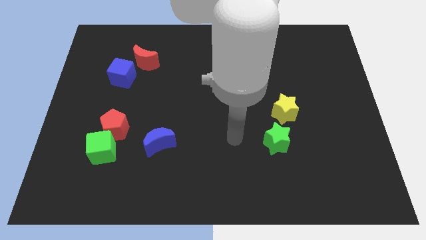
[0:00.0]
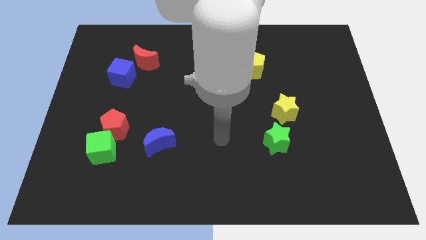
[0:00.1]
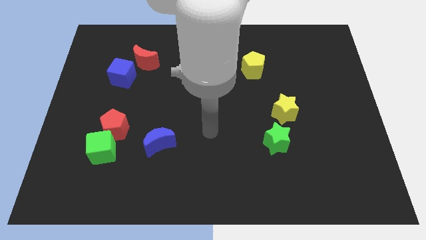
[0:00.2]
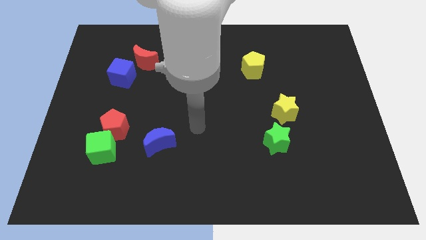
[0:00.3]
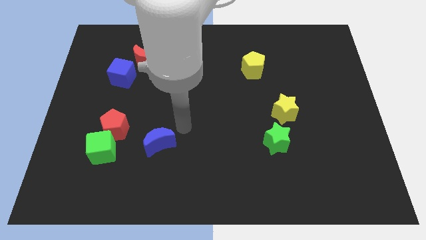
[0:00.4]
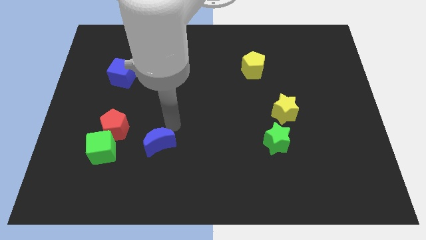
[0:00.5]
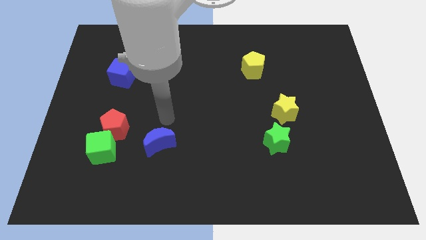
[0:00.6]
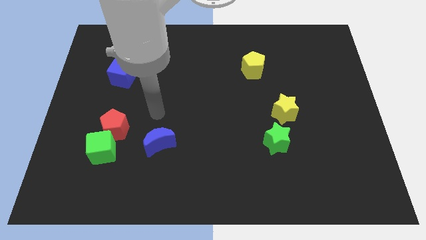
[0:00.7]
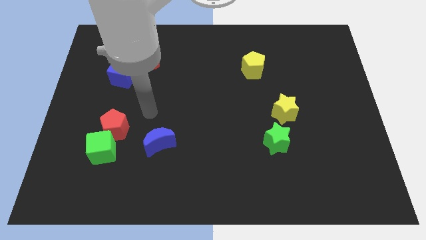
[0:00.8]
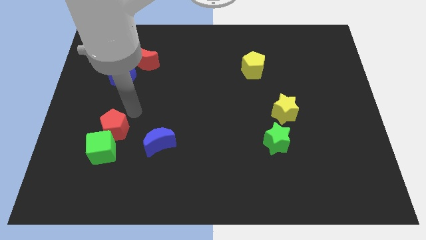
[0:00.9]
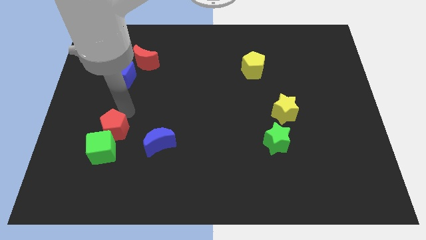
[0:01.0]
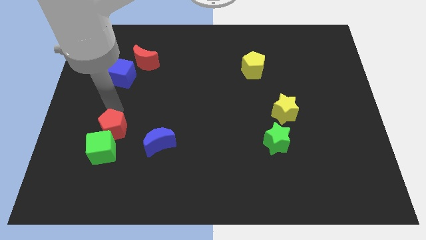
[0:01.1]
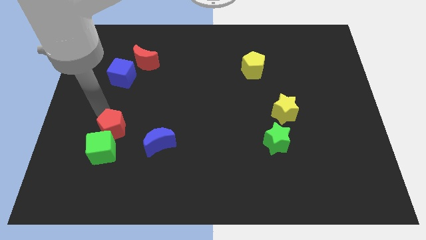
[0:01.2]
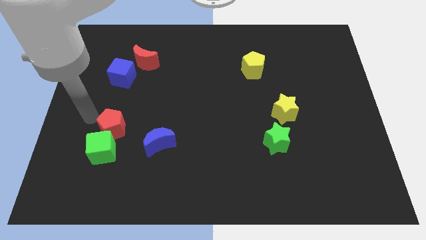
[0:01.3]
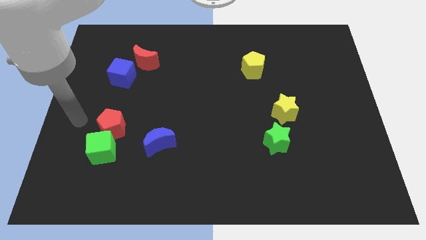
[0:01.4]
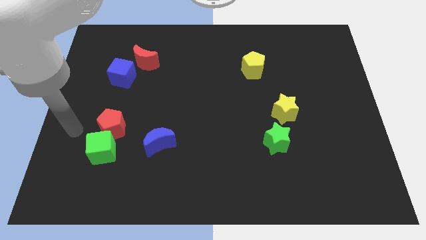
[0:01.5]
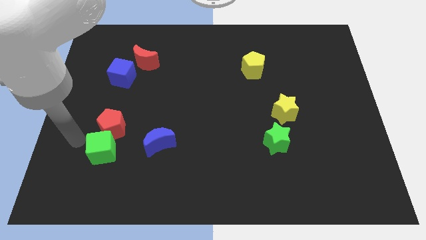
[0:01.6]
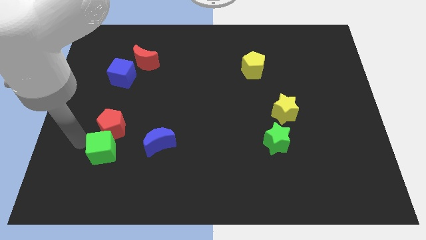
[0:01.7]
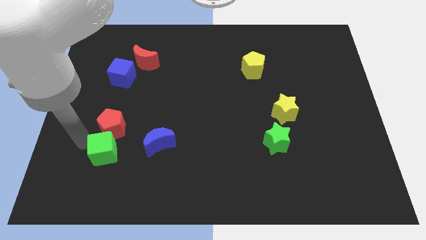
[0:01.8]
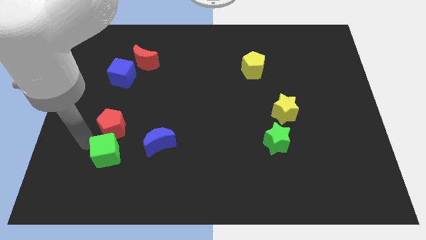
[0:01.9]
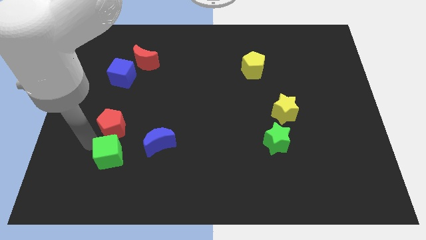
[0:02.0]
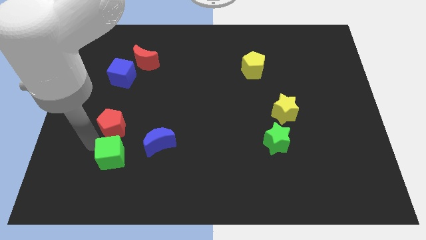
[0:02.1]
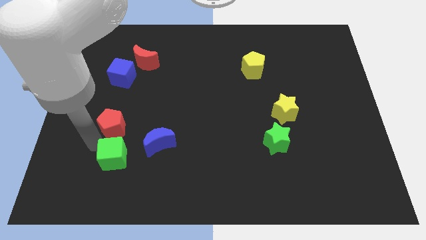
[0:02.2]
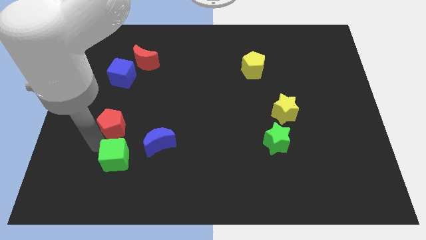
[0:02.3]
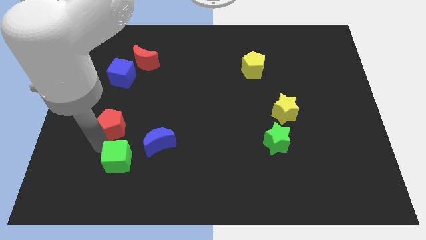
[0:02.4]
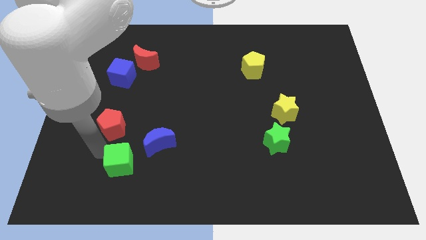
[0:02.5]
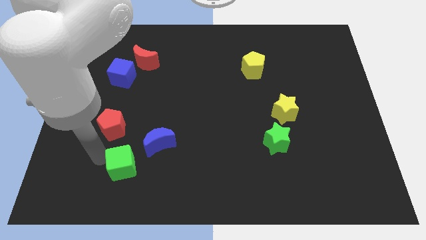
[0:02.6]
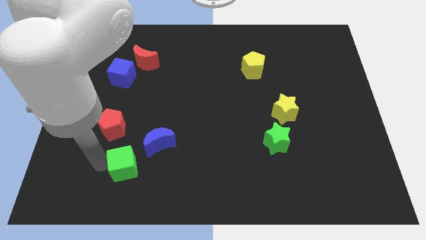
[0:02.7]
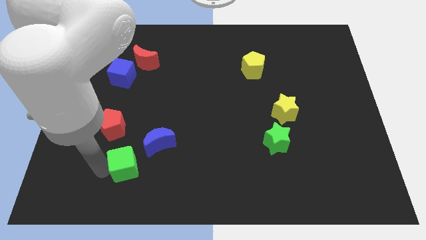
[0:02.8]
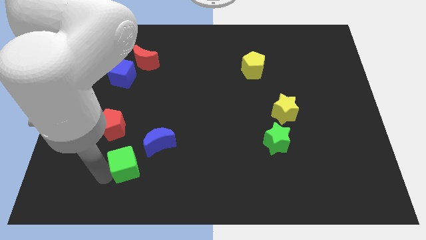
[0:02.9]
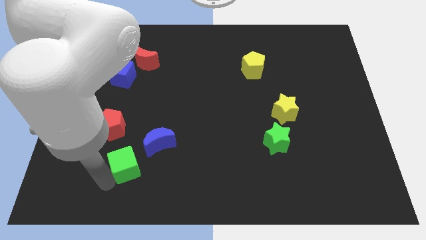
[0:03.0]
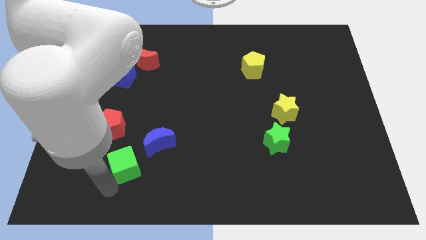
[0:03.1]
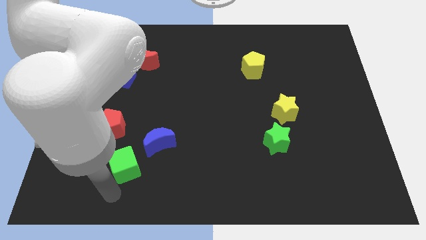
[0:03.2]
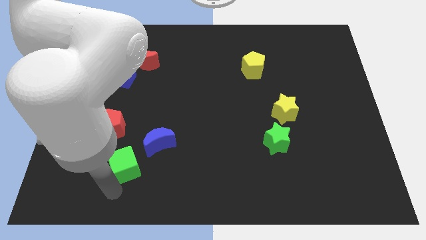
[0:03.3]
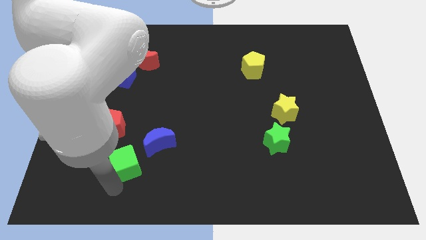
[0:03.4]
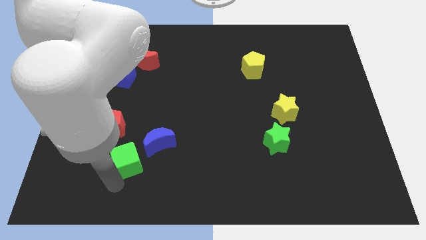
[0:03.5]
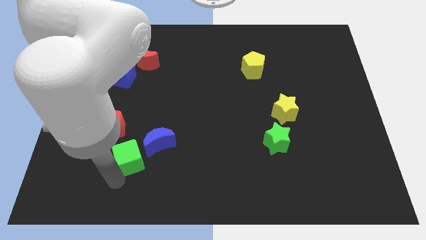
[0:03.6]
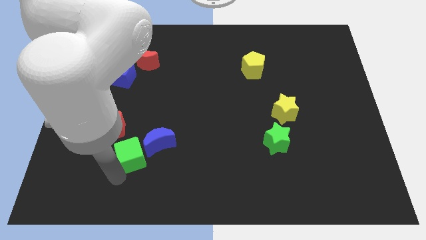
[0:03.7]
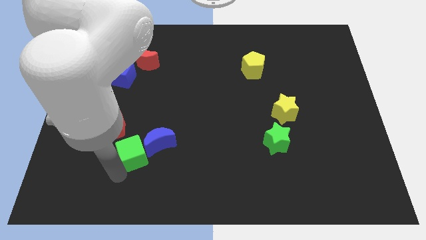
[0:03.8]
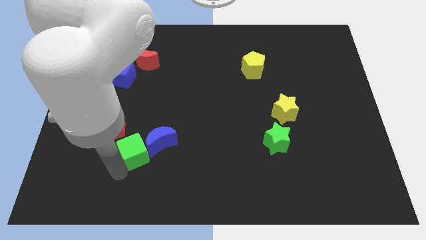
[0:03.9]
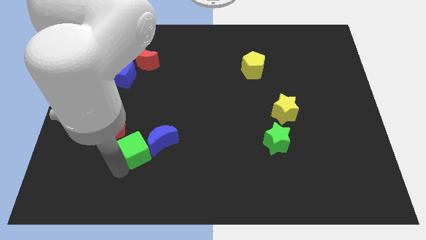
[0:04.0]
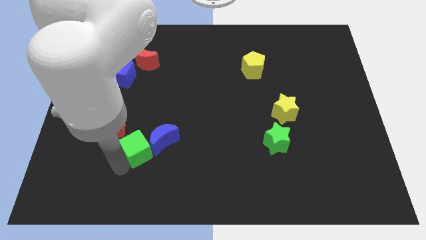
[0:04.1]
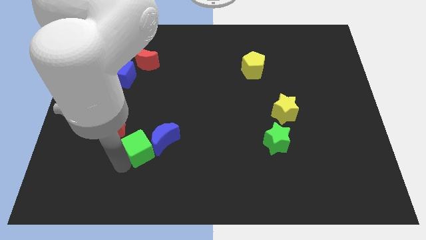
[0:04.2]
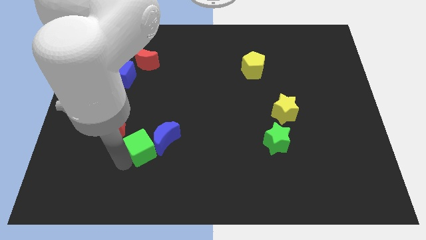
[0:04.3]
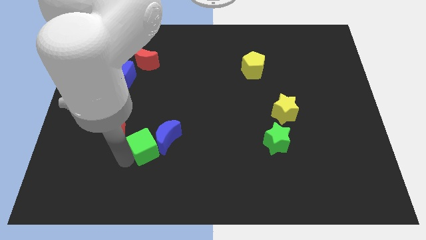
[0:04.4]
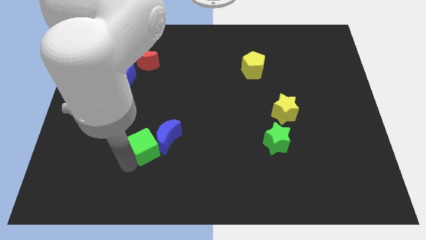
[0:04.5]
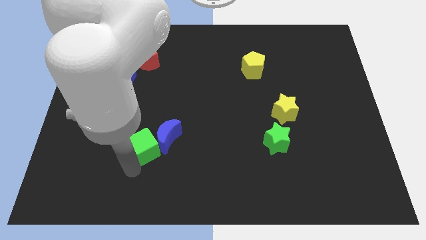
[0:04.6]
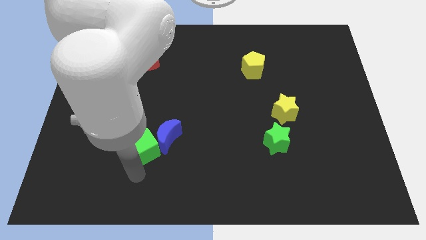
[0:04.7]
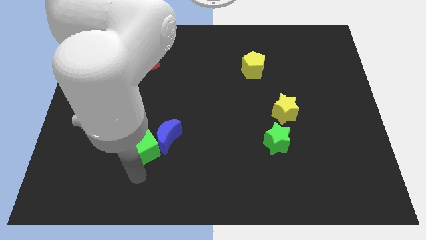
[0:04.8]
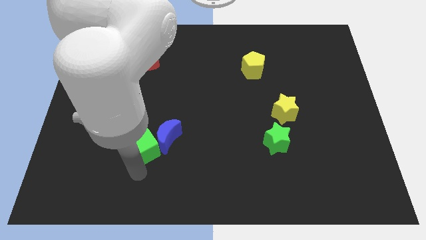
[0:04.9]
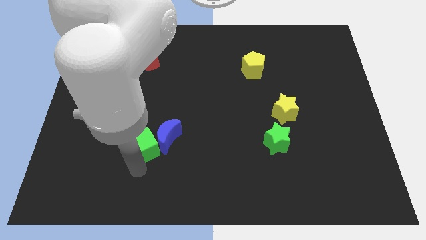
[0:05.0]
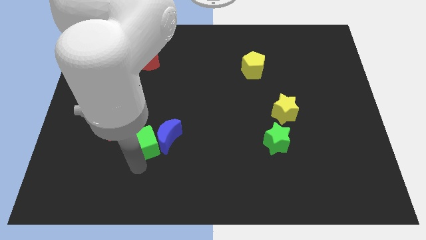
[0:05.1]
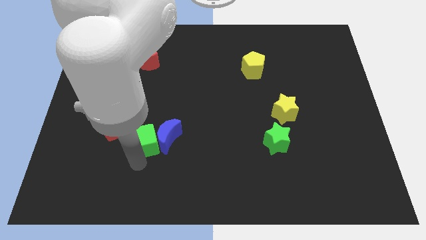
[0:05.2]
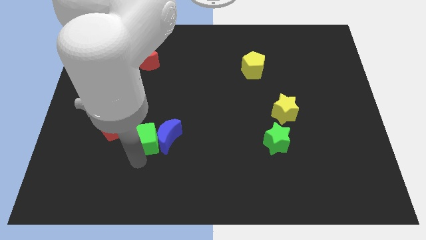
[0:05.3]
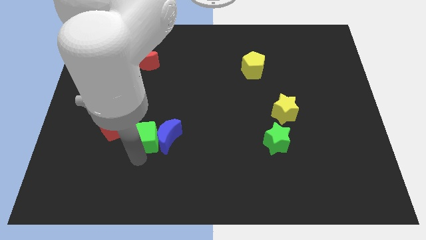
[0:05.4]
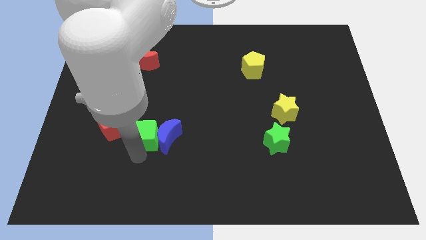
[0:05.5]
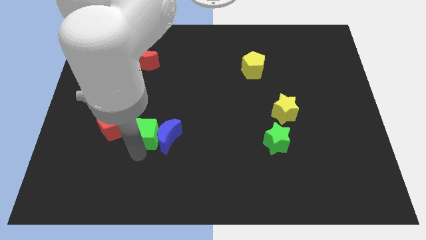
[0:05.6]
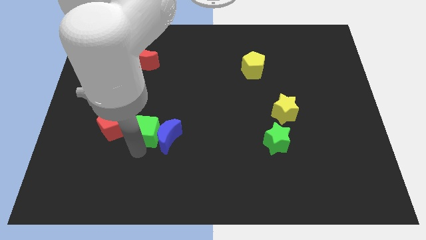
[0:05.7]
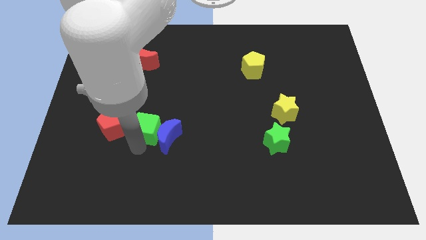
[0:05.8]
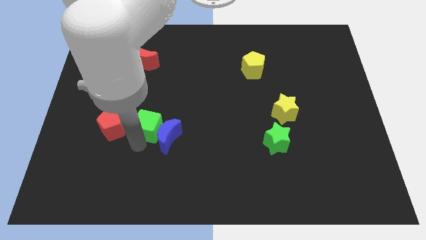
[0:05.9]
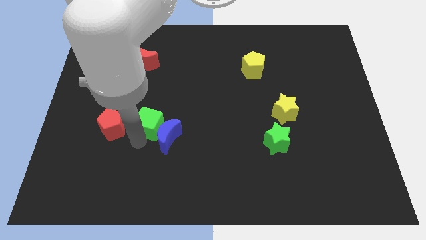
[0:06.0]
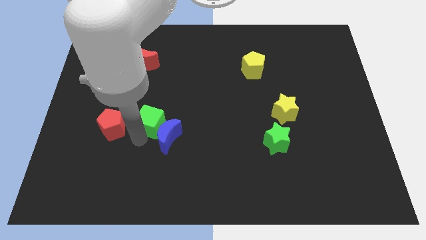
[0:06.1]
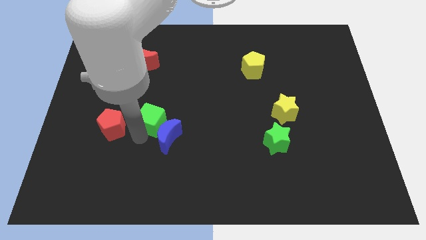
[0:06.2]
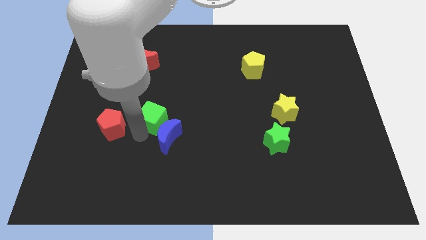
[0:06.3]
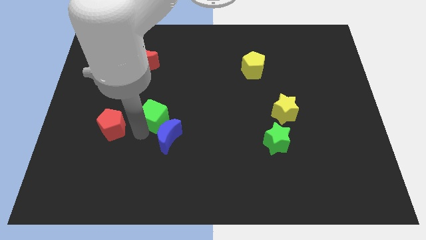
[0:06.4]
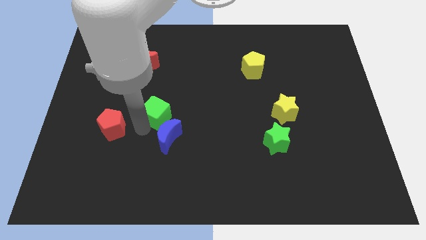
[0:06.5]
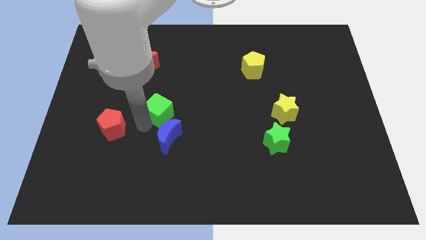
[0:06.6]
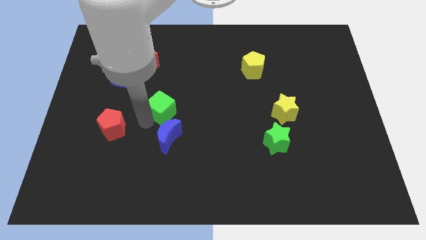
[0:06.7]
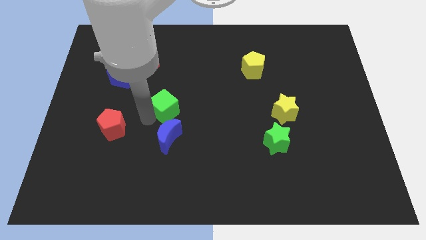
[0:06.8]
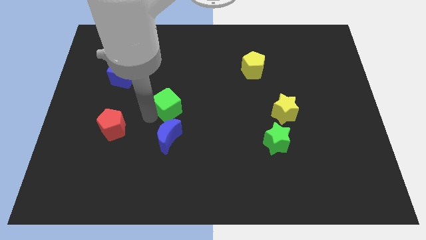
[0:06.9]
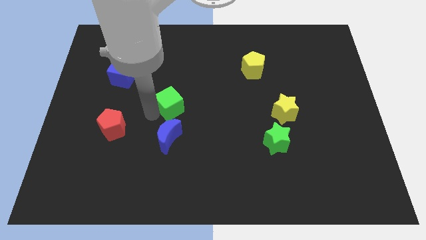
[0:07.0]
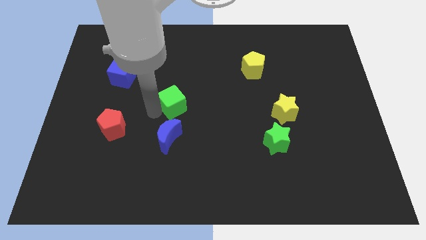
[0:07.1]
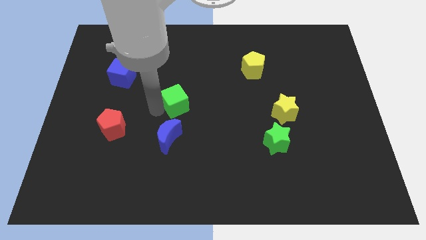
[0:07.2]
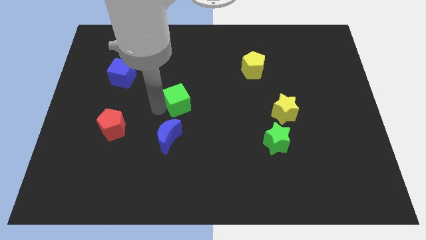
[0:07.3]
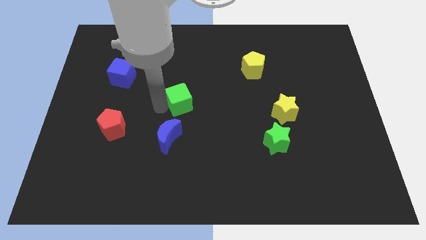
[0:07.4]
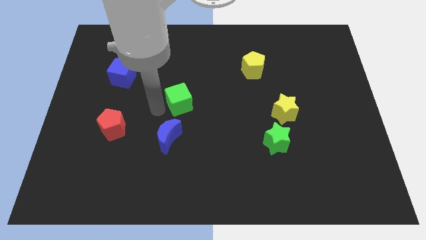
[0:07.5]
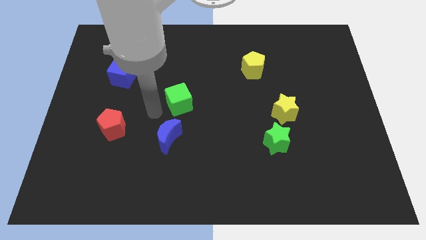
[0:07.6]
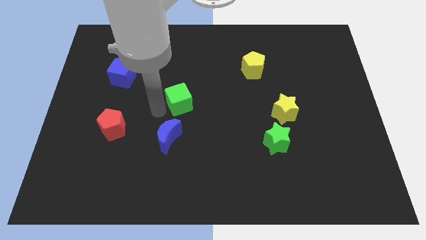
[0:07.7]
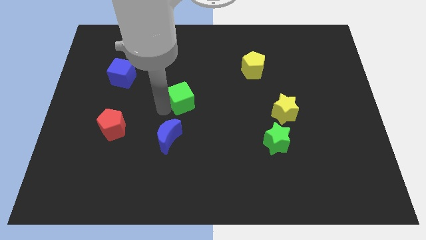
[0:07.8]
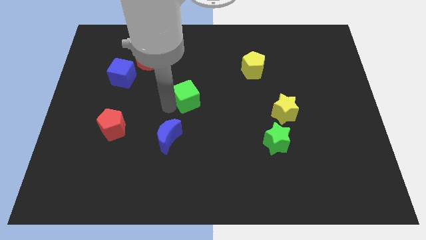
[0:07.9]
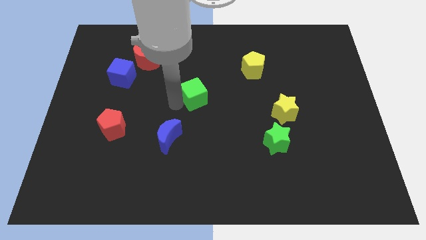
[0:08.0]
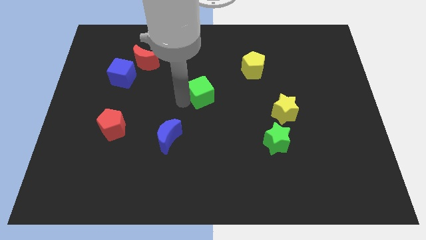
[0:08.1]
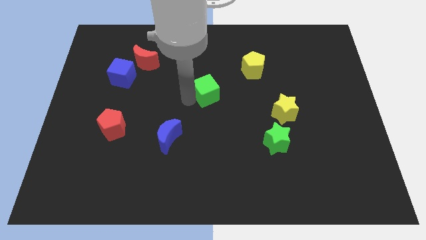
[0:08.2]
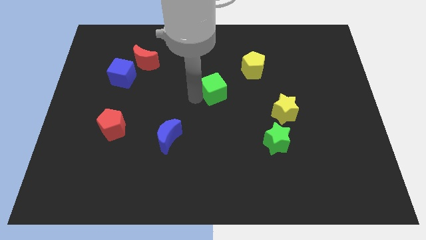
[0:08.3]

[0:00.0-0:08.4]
move the green cube to the bottom left of the yellow pentagon

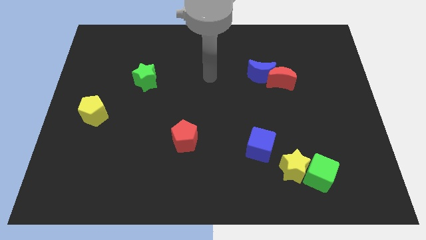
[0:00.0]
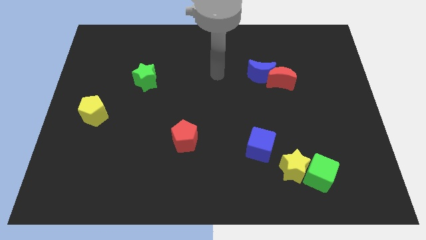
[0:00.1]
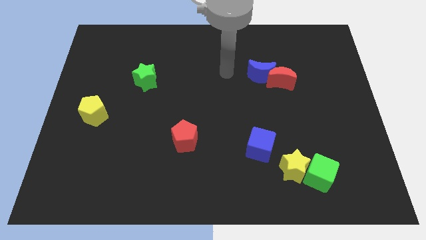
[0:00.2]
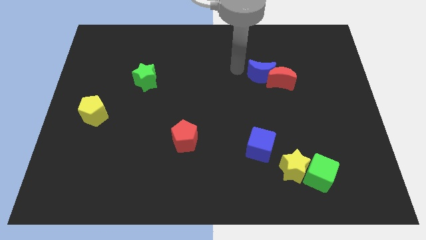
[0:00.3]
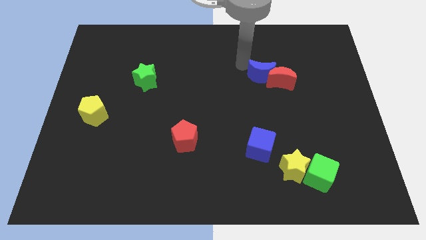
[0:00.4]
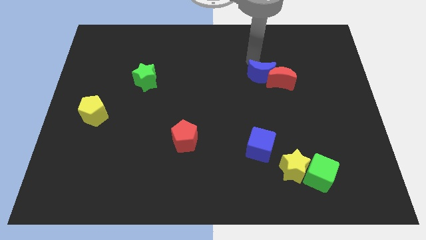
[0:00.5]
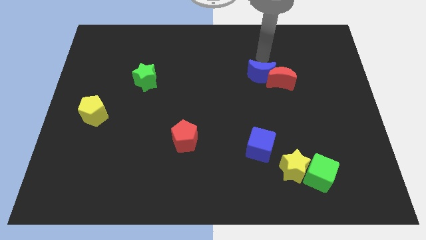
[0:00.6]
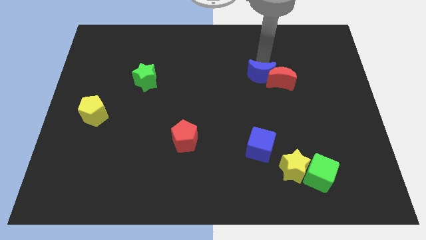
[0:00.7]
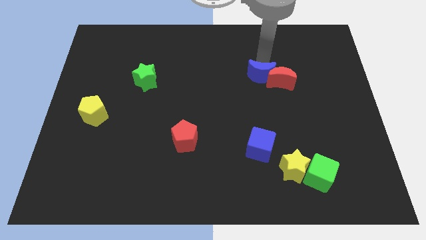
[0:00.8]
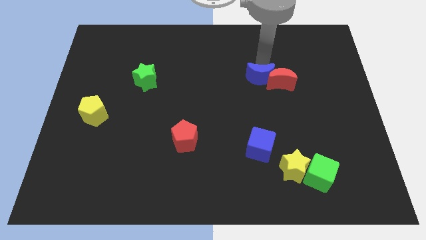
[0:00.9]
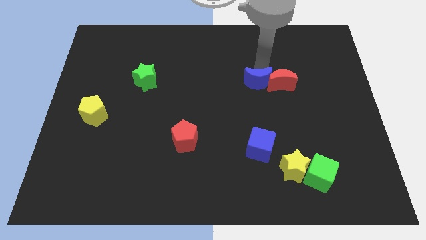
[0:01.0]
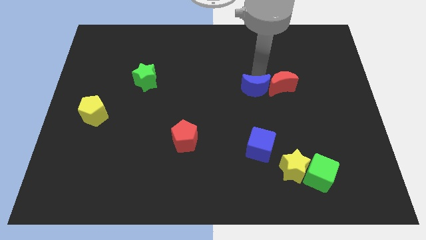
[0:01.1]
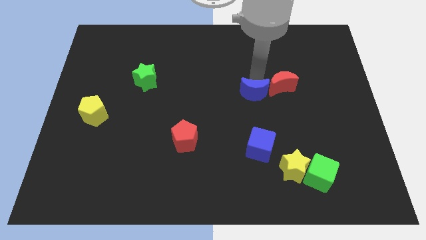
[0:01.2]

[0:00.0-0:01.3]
push the blue moon to the top of the blue cube
